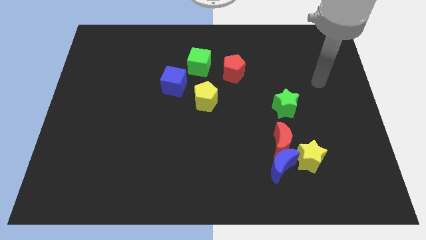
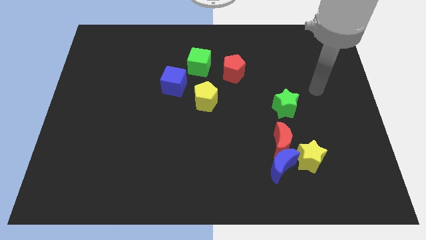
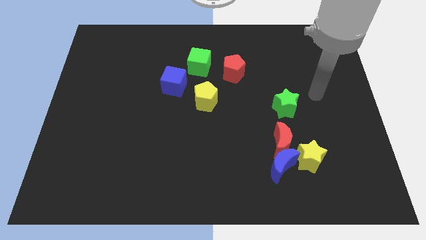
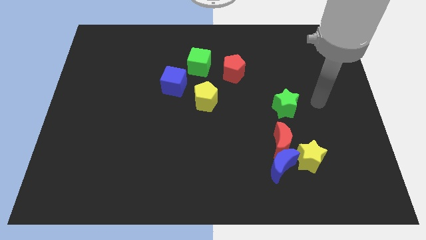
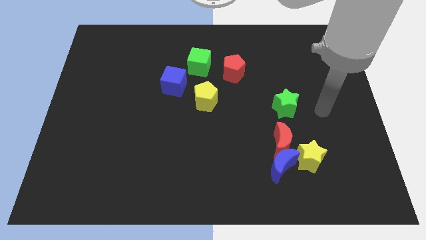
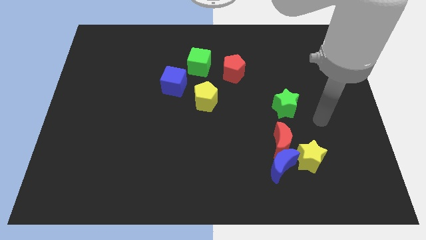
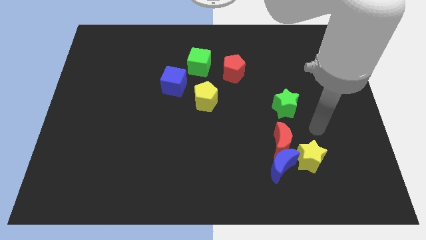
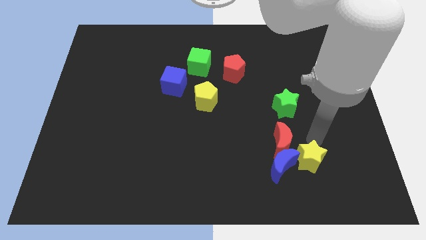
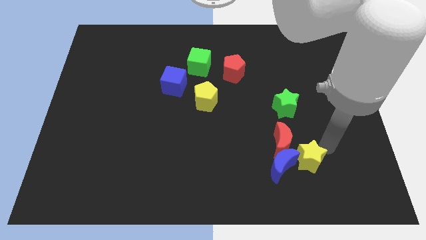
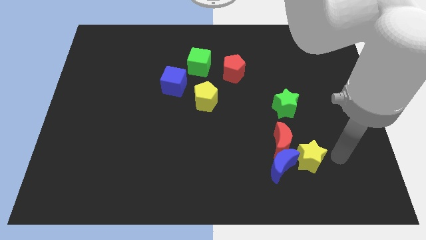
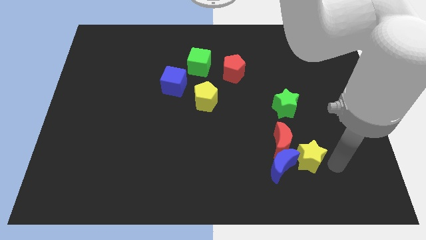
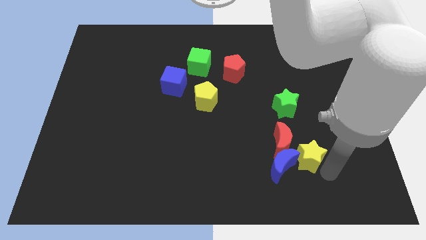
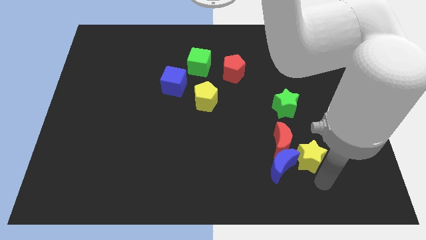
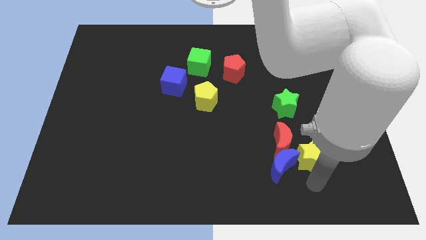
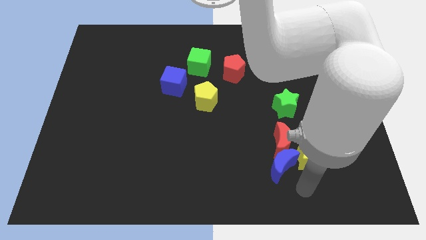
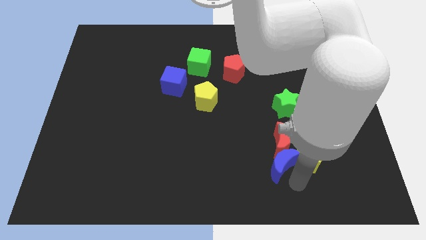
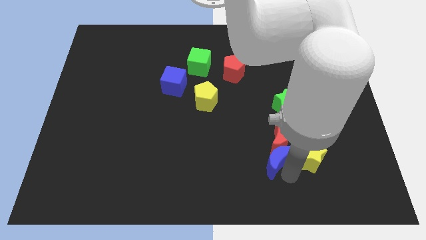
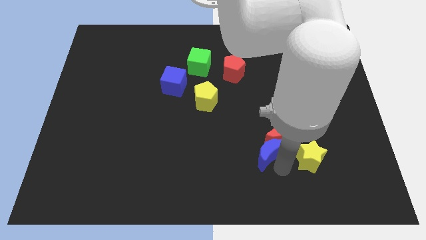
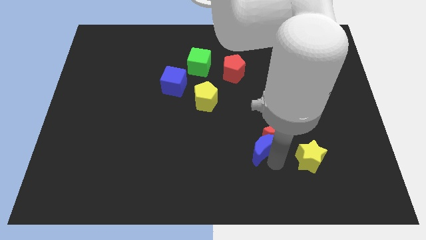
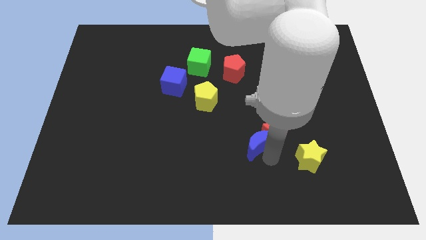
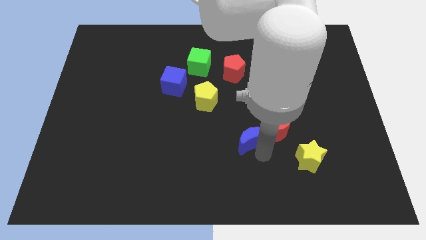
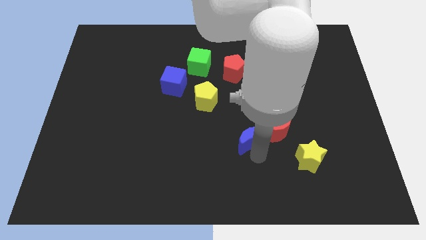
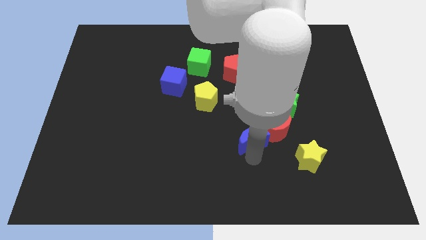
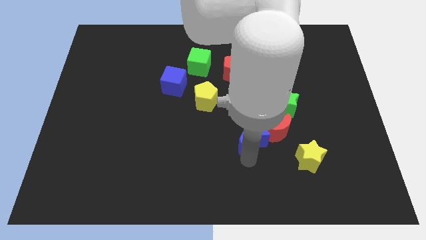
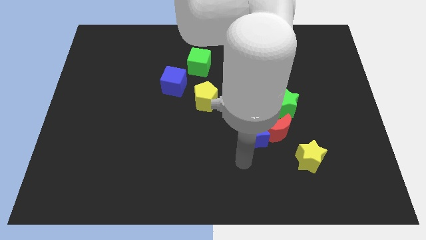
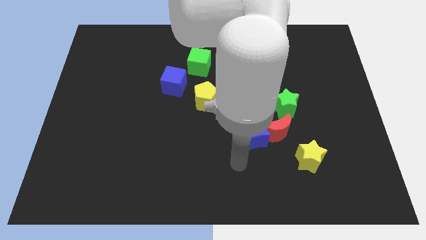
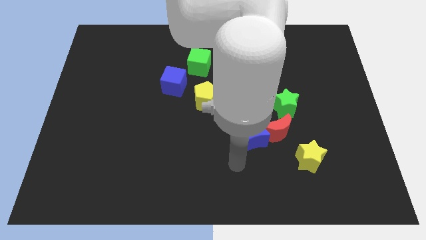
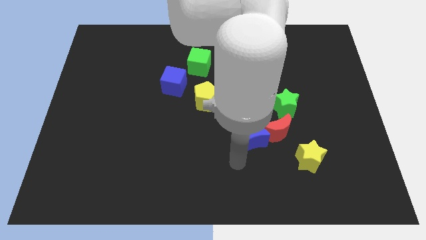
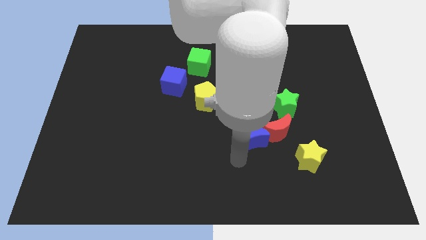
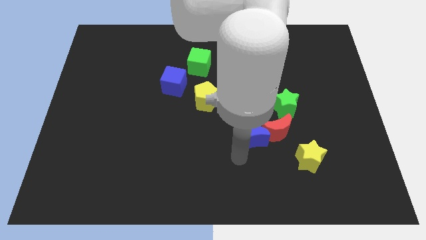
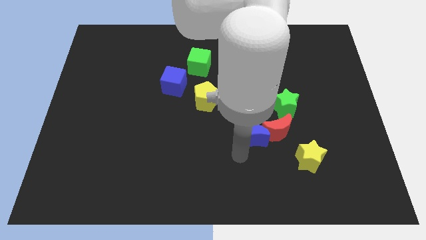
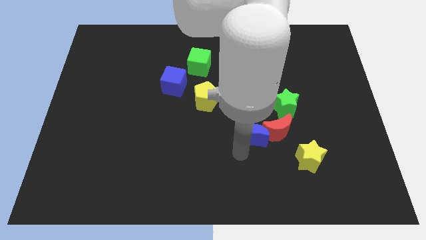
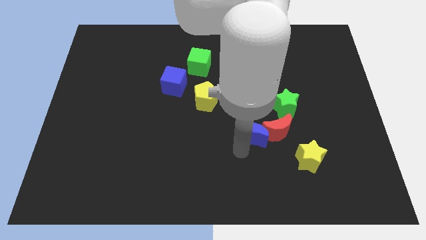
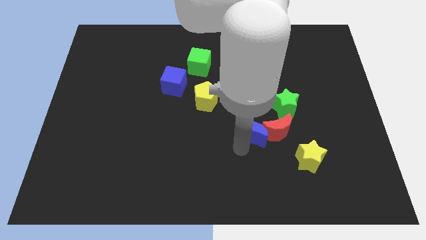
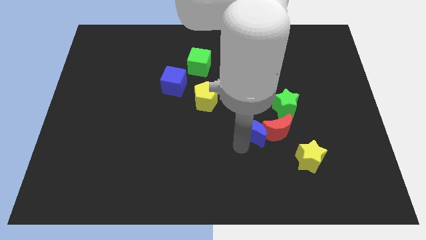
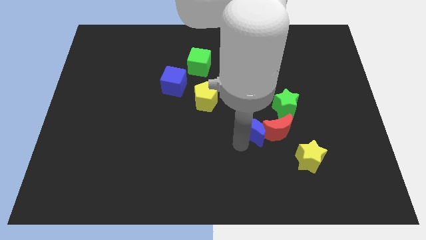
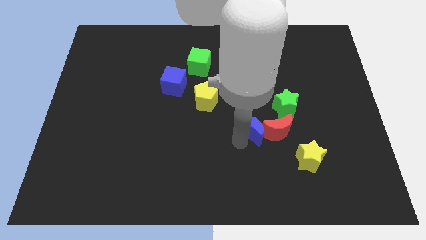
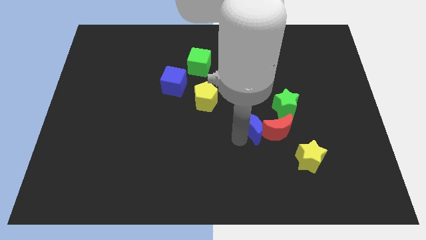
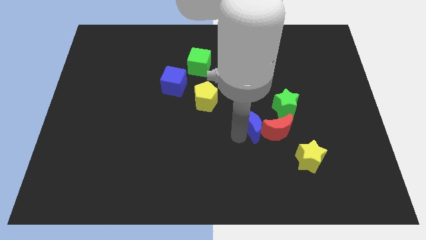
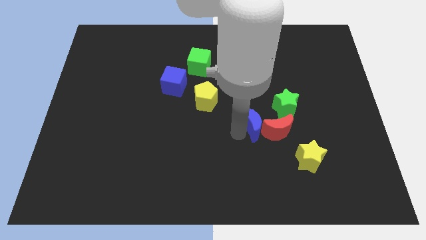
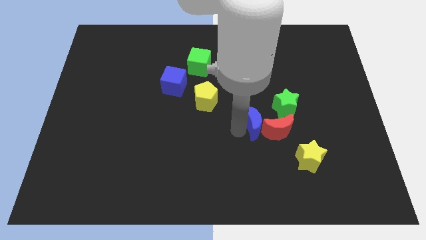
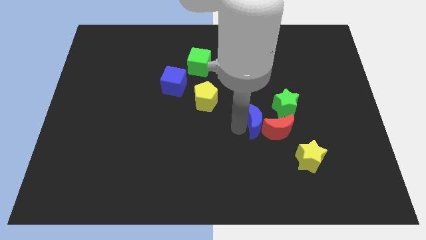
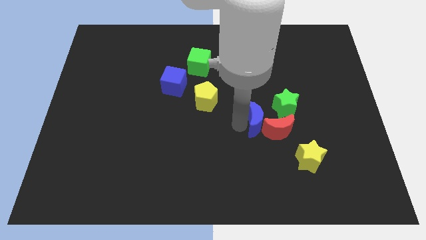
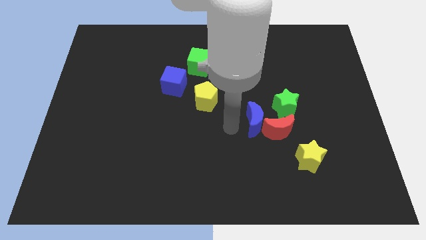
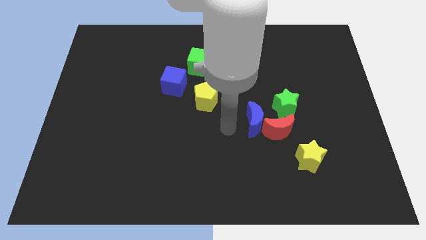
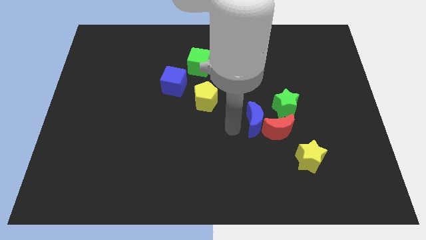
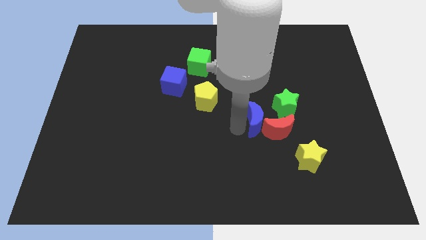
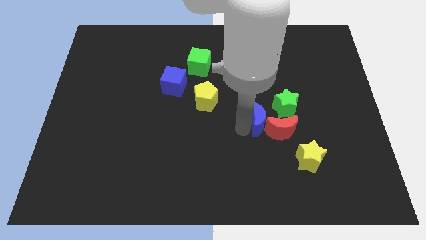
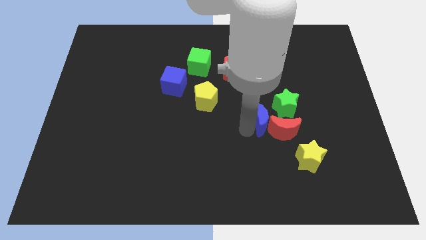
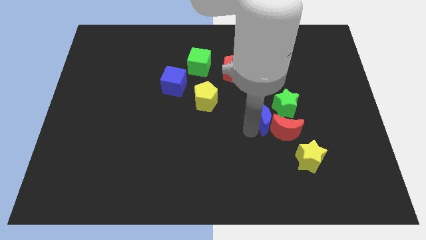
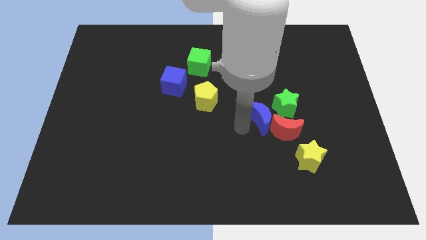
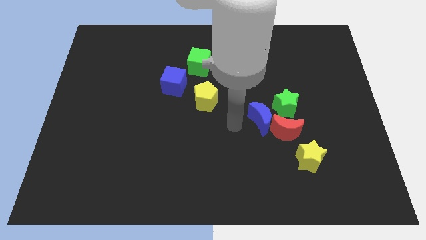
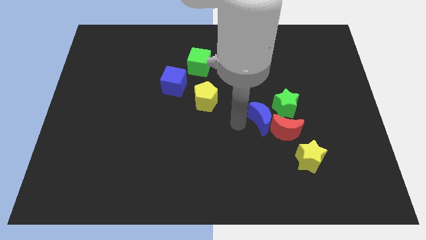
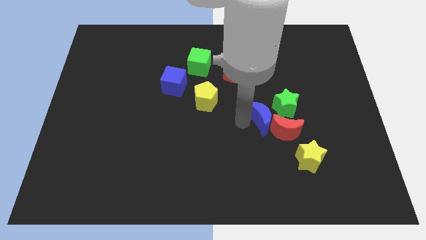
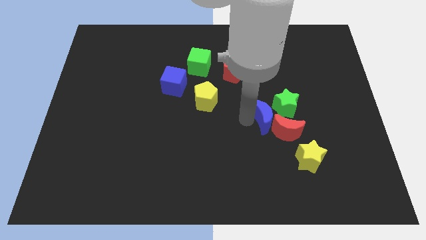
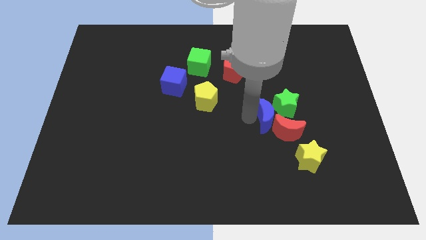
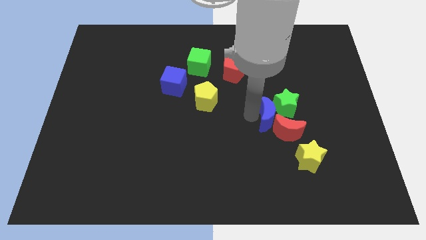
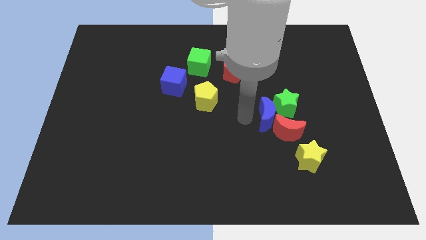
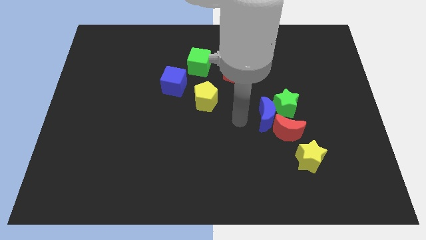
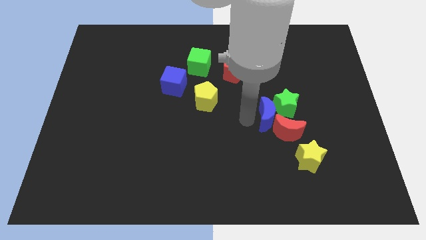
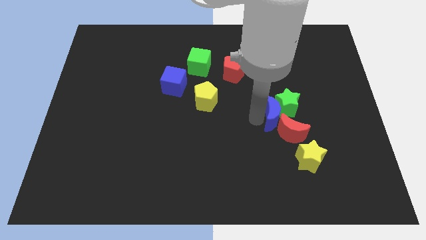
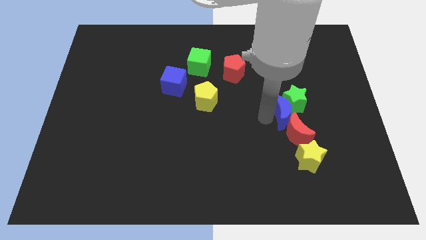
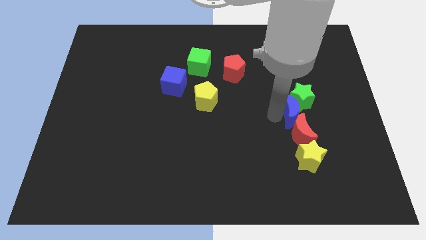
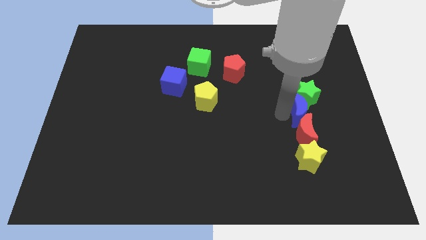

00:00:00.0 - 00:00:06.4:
slide the blue moon to the top right of the red moon

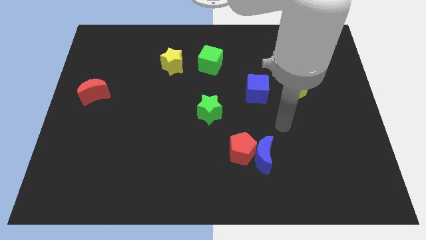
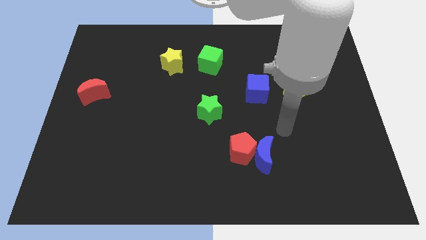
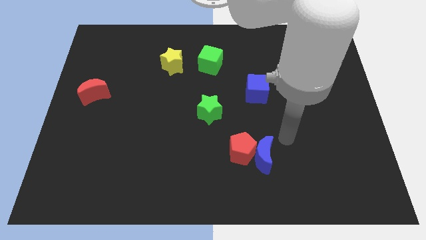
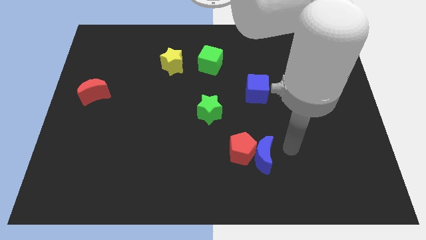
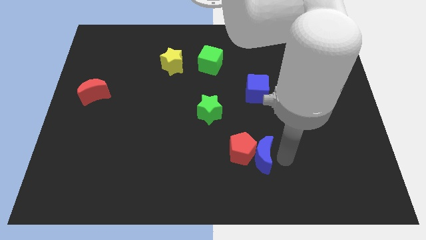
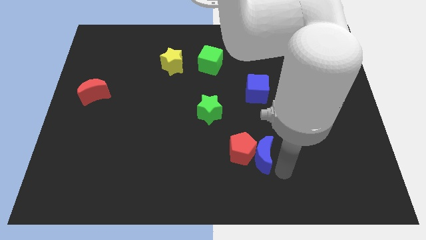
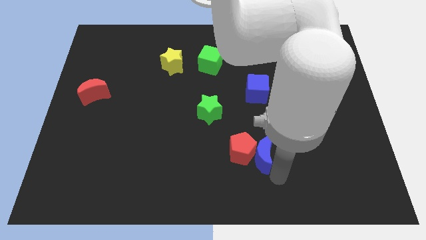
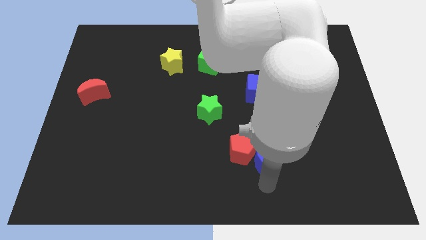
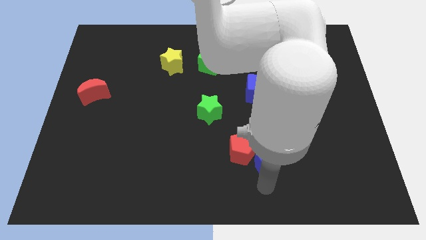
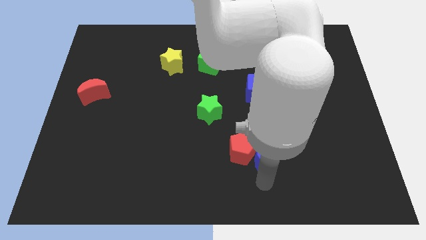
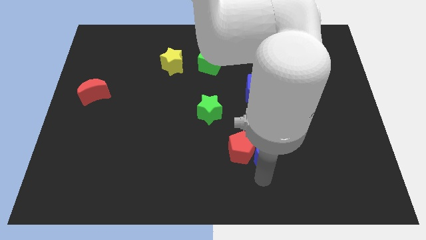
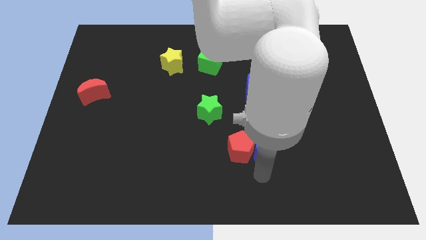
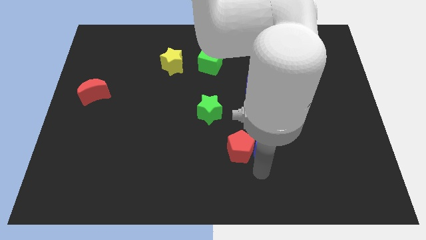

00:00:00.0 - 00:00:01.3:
put the blue moon below the blue cube
